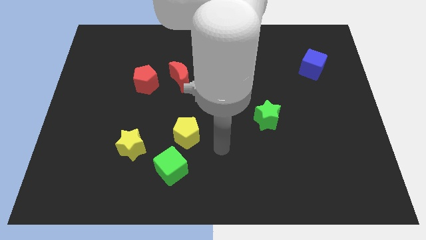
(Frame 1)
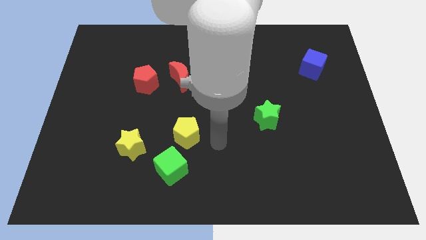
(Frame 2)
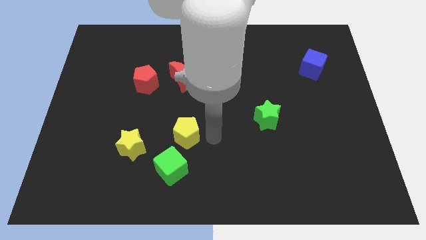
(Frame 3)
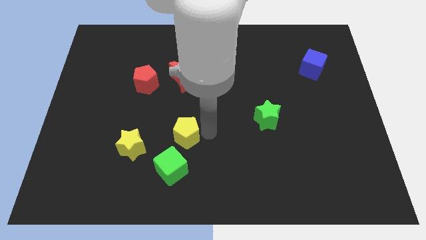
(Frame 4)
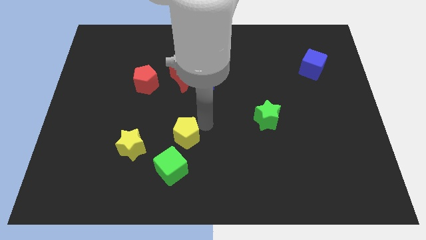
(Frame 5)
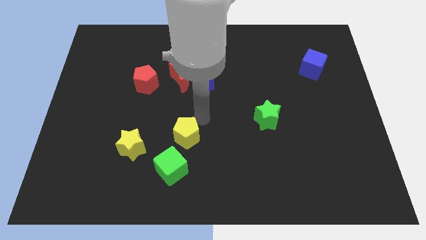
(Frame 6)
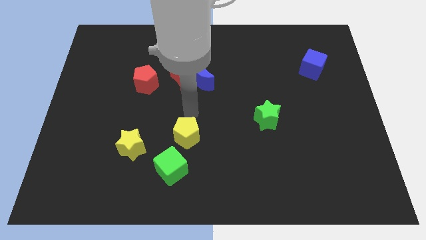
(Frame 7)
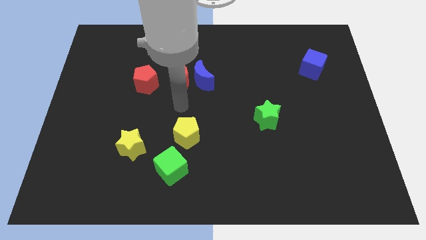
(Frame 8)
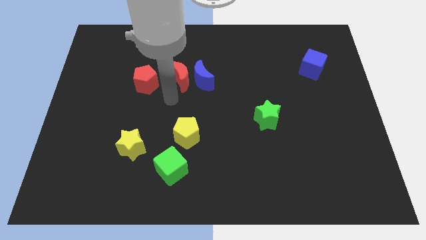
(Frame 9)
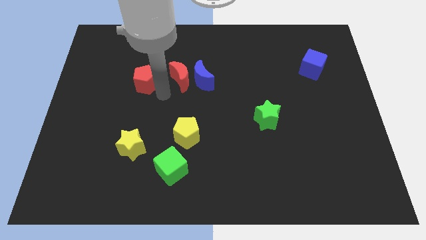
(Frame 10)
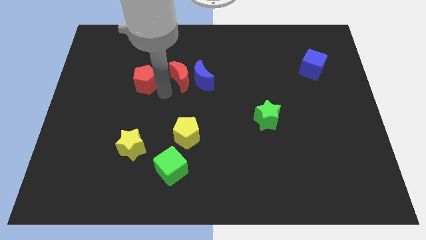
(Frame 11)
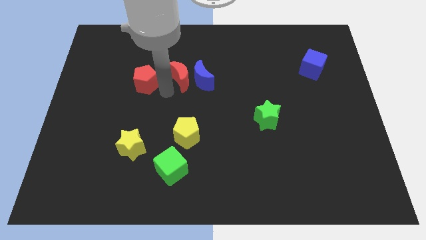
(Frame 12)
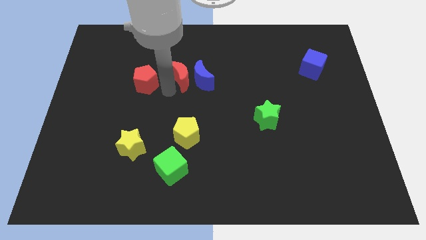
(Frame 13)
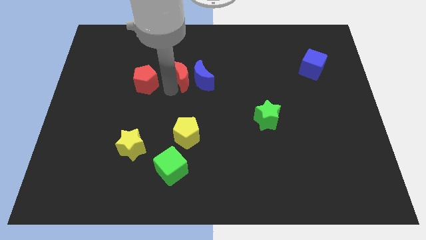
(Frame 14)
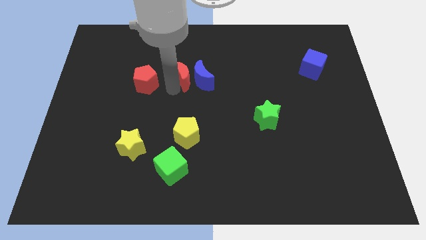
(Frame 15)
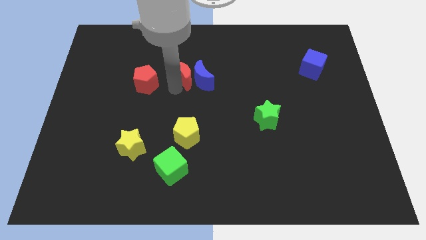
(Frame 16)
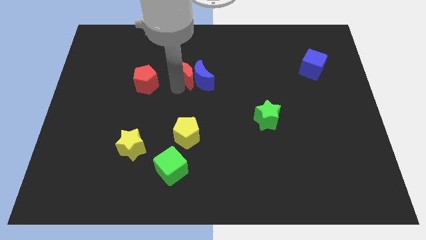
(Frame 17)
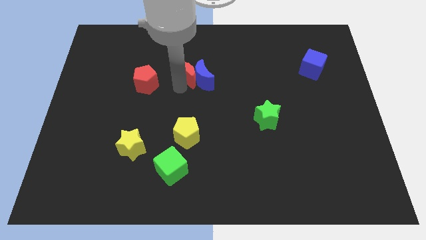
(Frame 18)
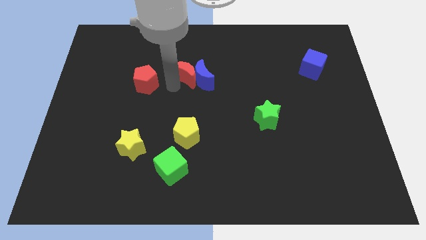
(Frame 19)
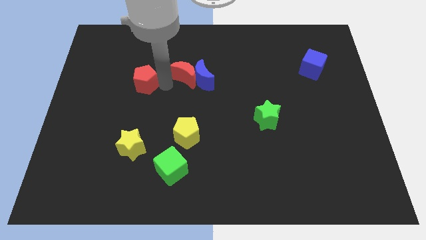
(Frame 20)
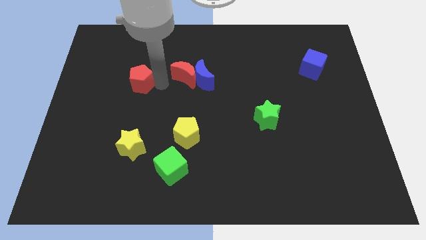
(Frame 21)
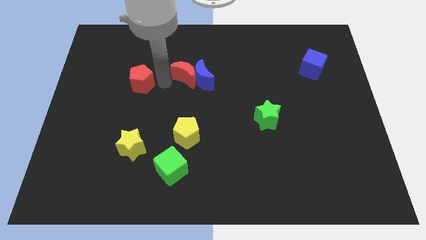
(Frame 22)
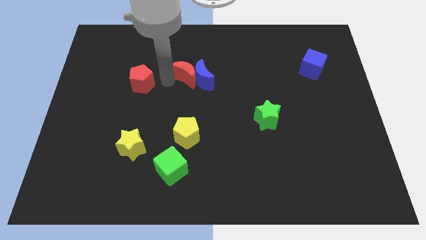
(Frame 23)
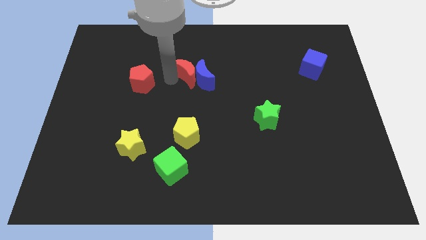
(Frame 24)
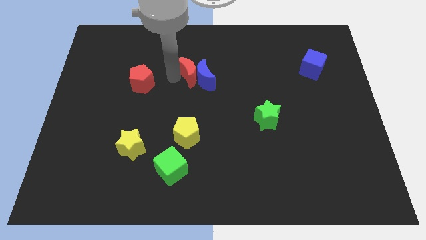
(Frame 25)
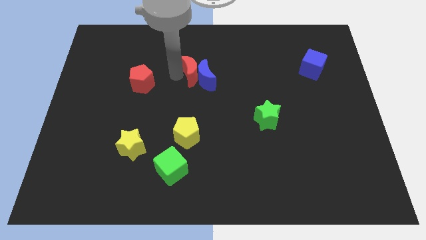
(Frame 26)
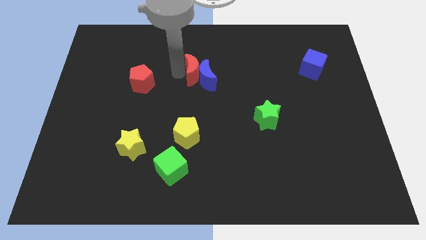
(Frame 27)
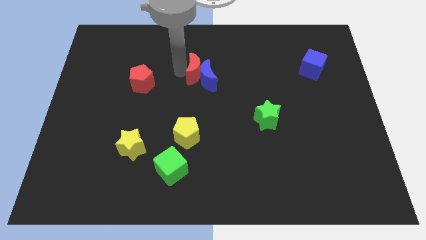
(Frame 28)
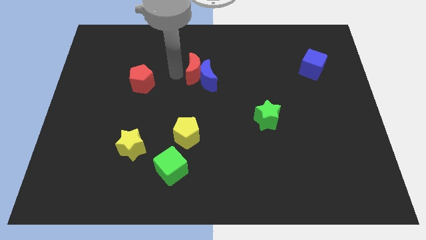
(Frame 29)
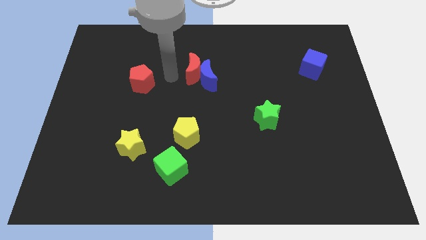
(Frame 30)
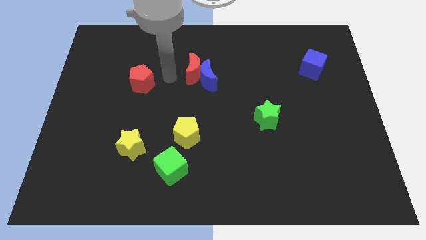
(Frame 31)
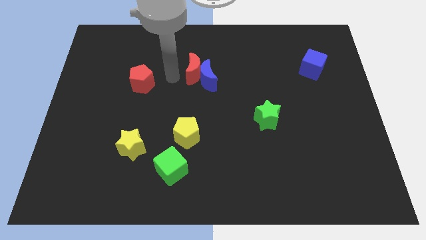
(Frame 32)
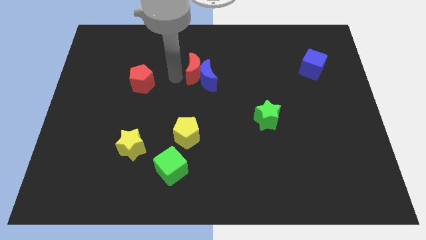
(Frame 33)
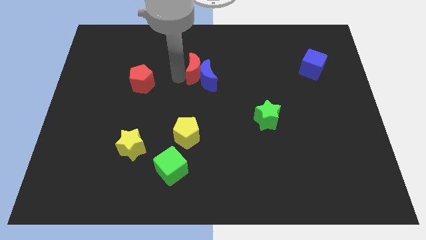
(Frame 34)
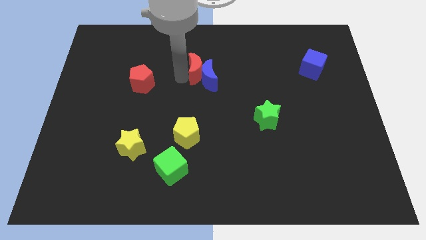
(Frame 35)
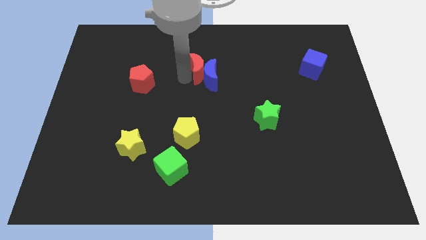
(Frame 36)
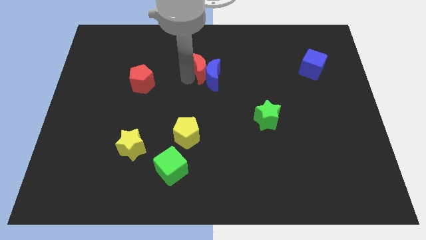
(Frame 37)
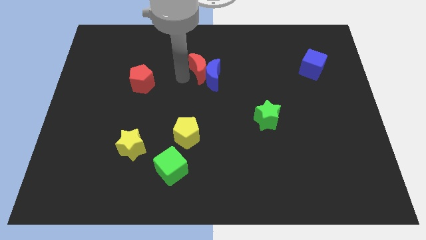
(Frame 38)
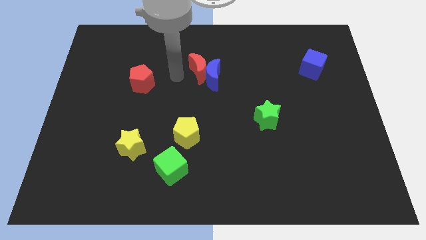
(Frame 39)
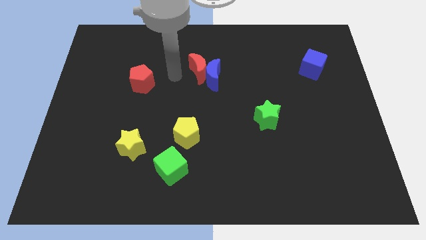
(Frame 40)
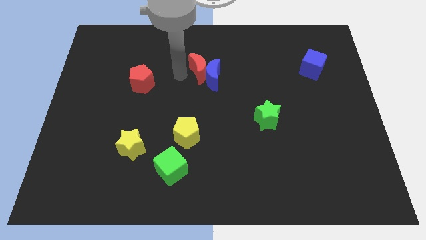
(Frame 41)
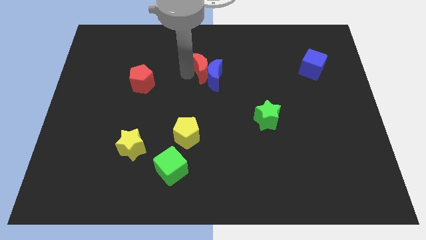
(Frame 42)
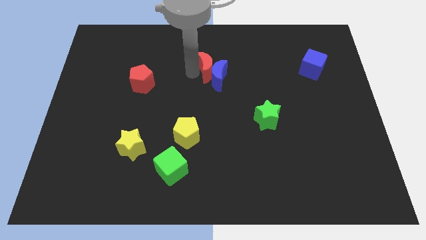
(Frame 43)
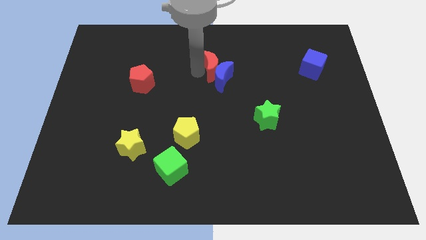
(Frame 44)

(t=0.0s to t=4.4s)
slightly move the red moon to the right

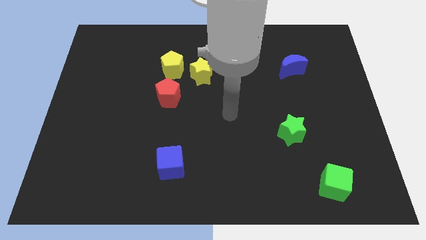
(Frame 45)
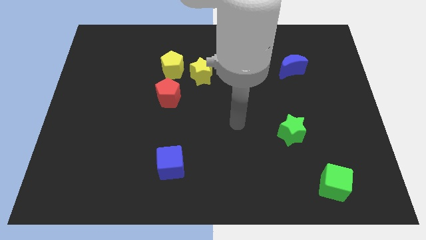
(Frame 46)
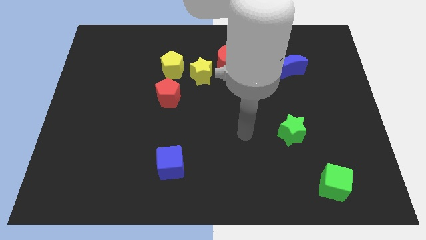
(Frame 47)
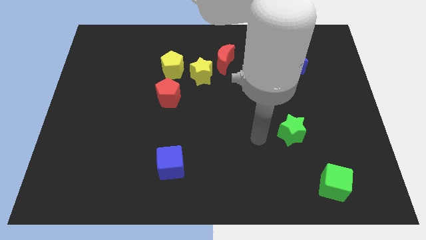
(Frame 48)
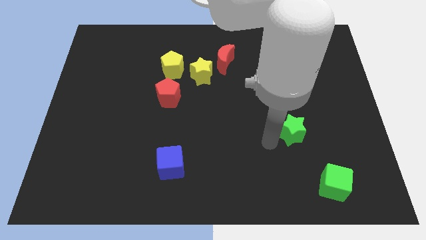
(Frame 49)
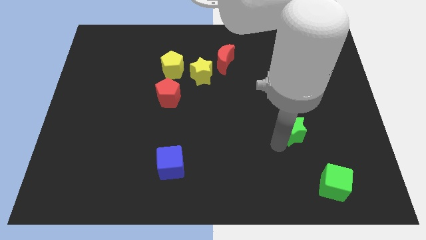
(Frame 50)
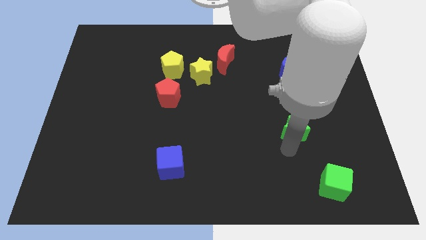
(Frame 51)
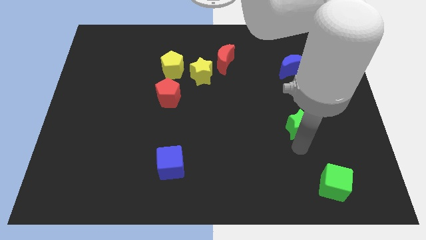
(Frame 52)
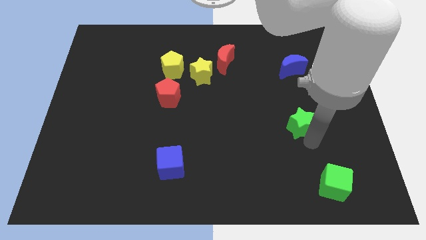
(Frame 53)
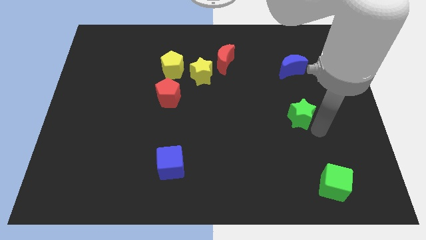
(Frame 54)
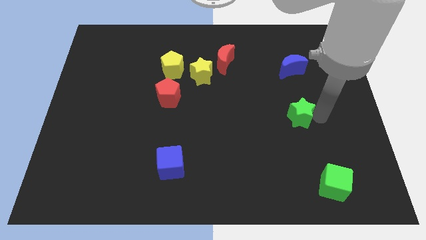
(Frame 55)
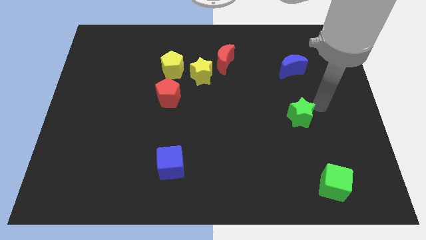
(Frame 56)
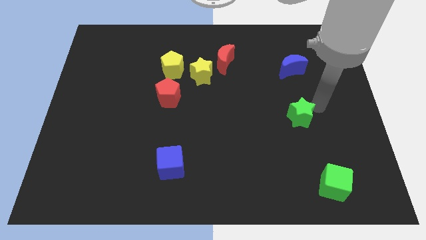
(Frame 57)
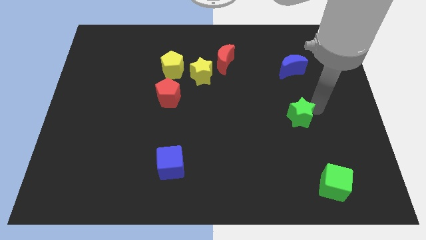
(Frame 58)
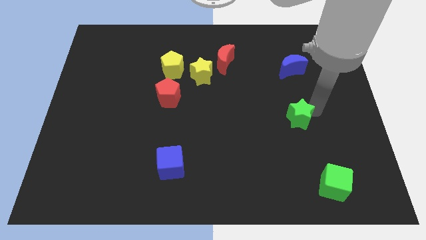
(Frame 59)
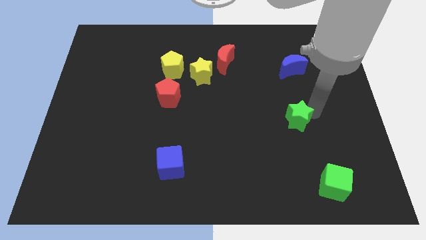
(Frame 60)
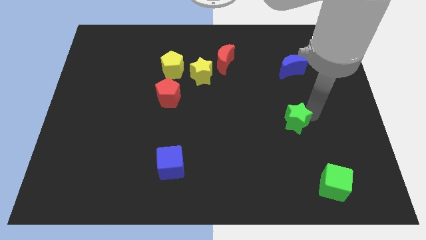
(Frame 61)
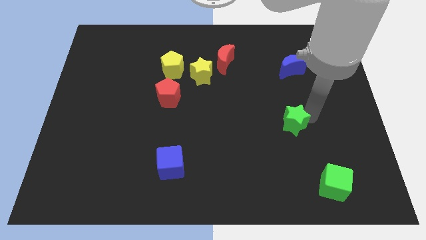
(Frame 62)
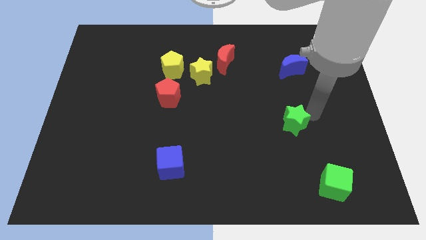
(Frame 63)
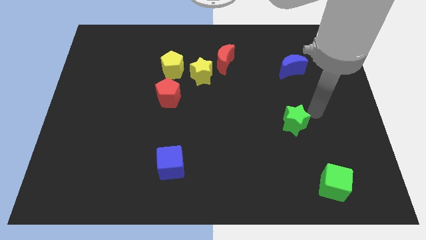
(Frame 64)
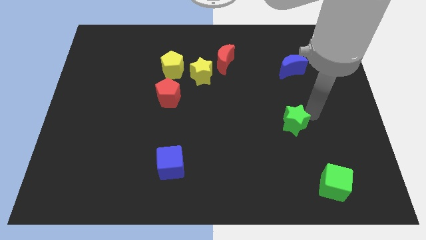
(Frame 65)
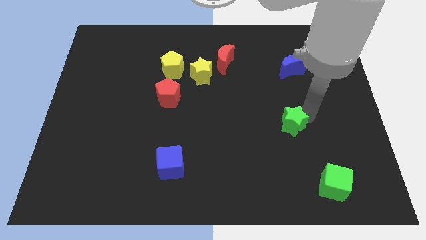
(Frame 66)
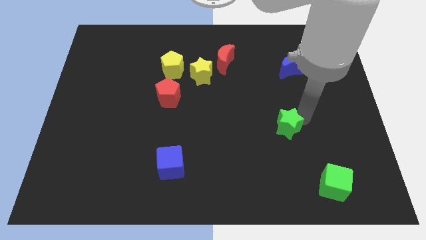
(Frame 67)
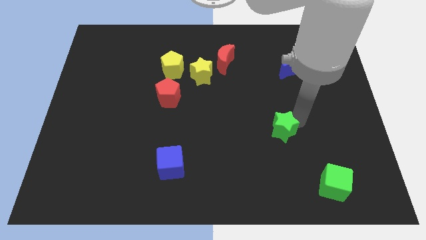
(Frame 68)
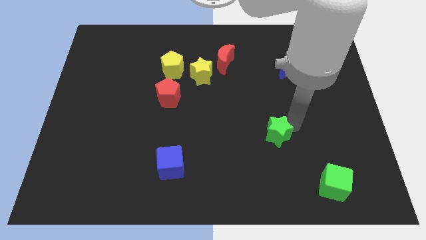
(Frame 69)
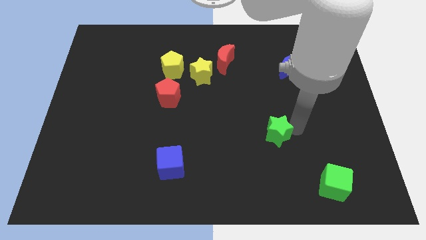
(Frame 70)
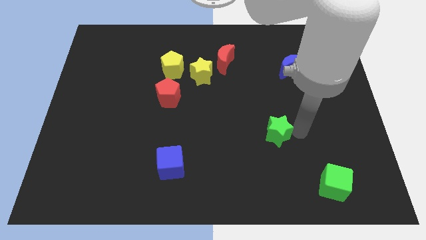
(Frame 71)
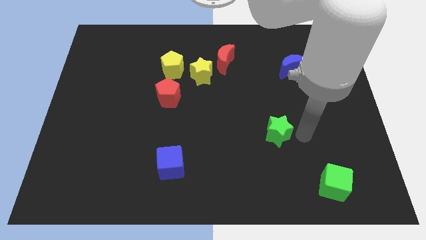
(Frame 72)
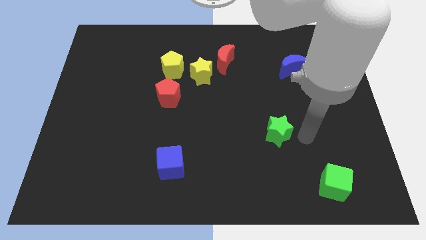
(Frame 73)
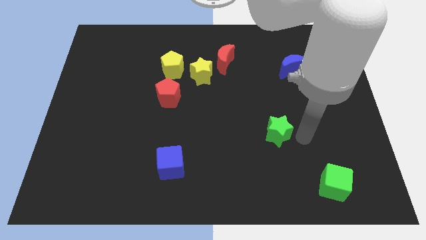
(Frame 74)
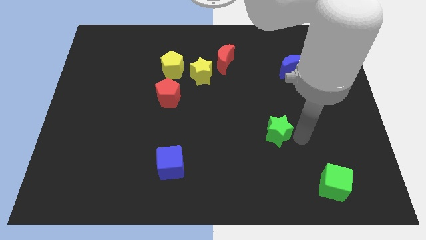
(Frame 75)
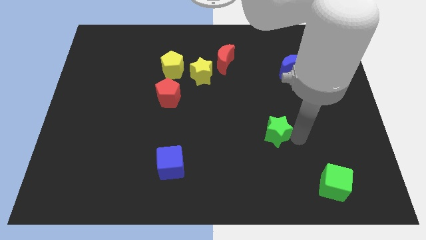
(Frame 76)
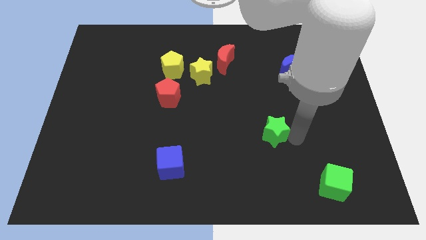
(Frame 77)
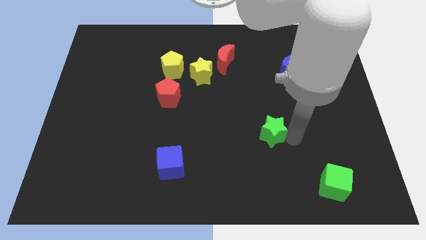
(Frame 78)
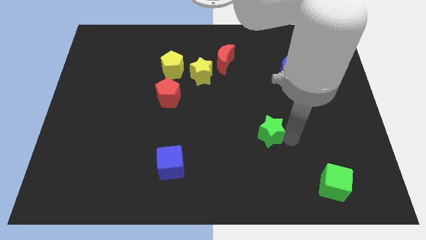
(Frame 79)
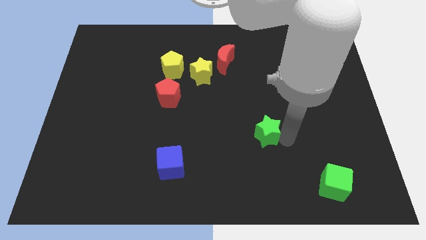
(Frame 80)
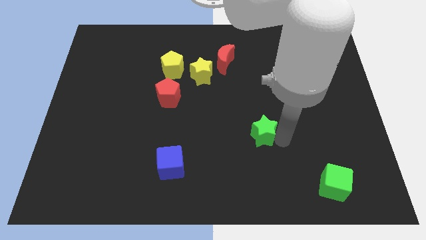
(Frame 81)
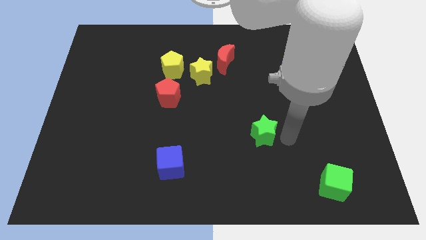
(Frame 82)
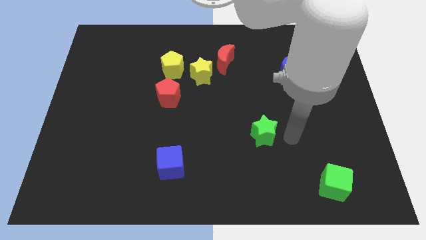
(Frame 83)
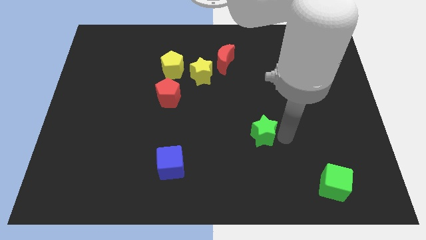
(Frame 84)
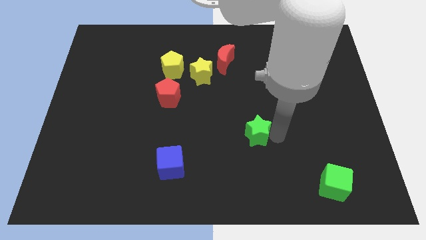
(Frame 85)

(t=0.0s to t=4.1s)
move the green star a little to the left

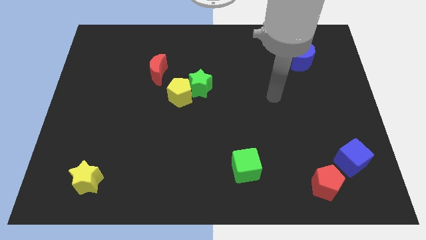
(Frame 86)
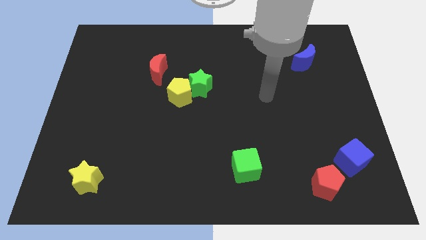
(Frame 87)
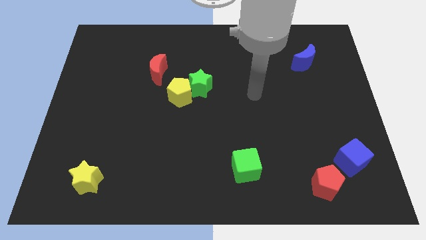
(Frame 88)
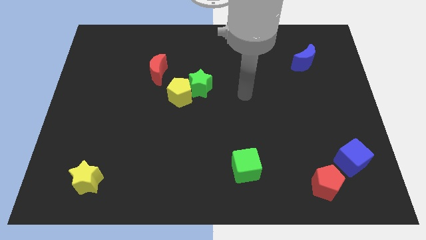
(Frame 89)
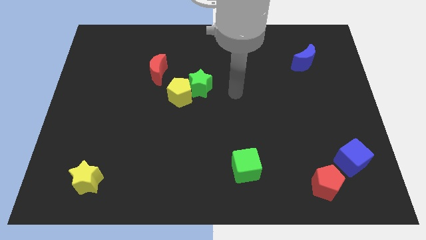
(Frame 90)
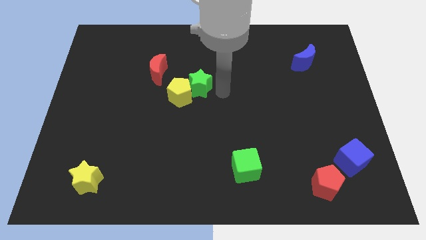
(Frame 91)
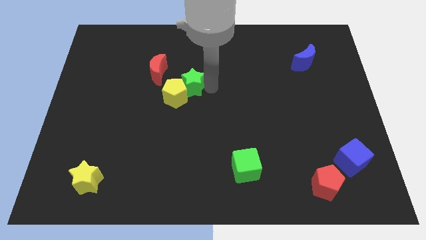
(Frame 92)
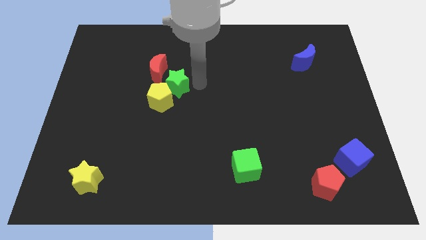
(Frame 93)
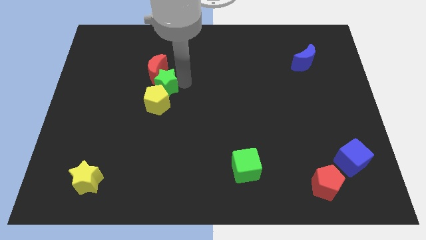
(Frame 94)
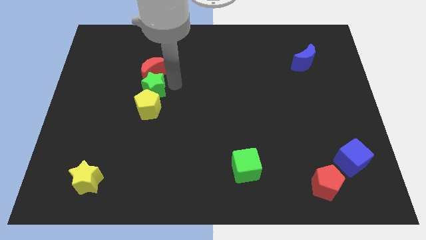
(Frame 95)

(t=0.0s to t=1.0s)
push the yellow pentagon a bit diagonally down and to the left
